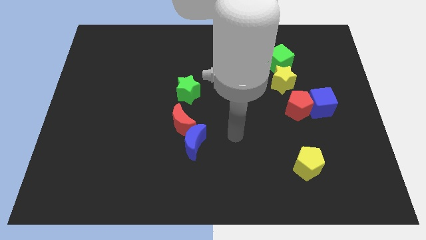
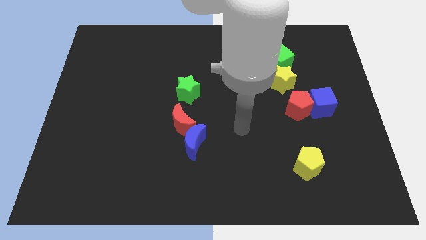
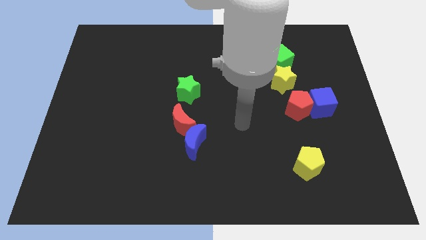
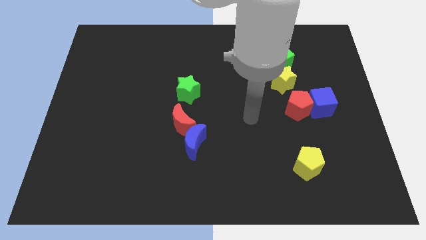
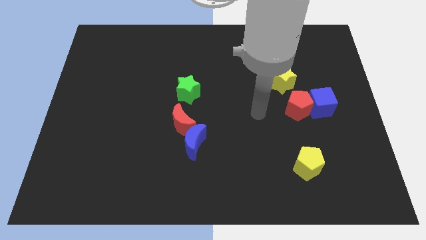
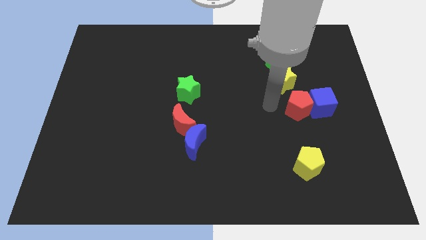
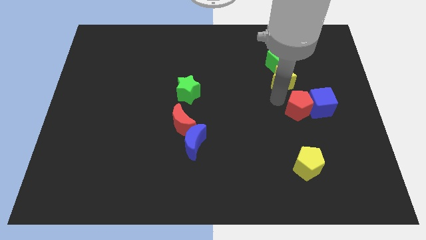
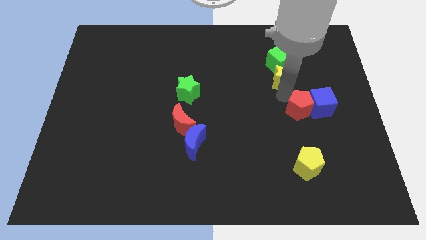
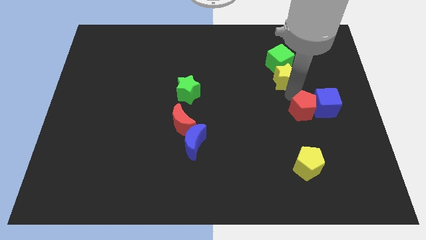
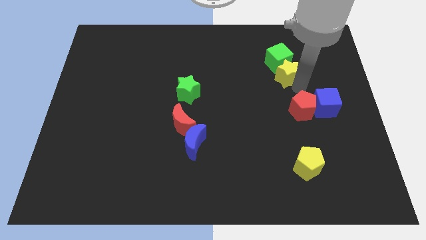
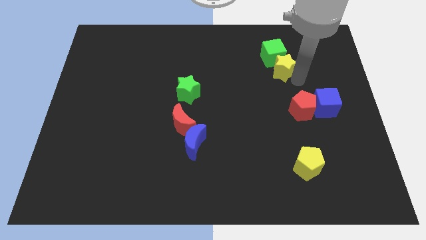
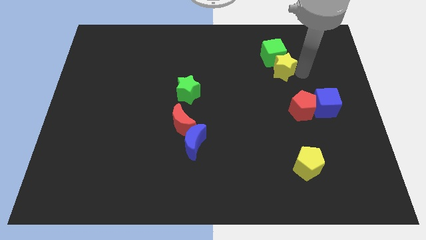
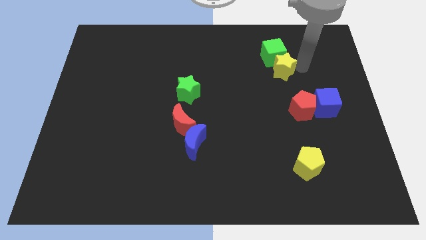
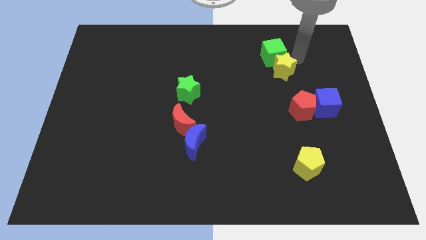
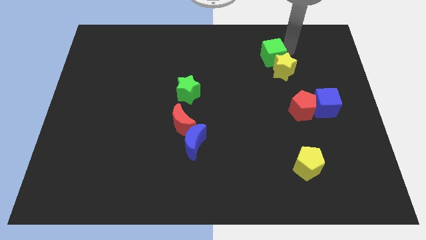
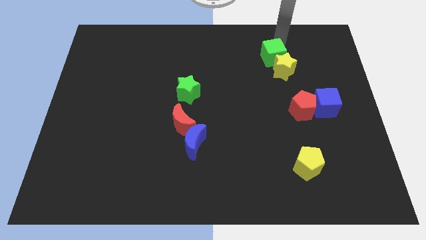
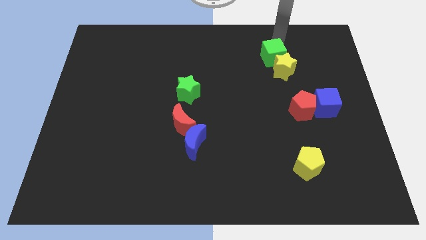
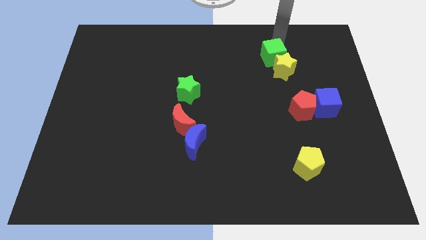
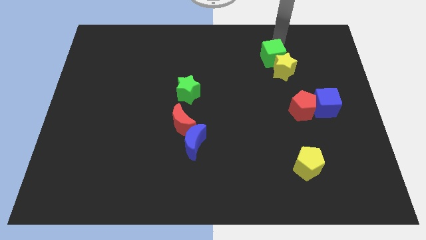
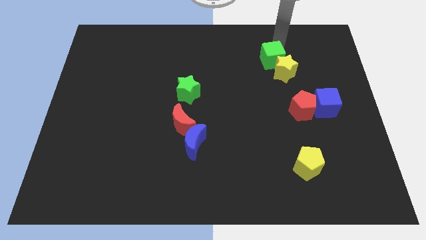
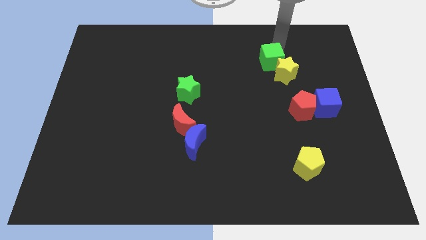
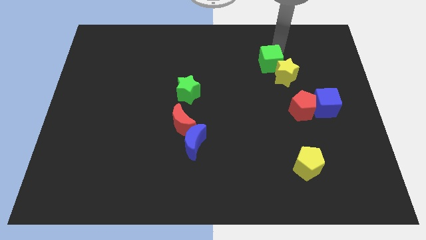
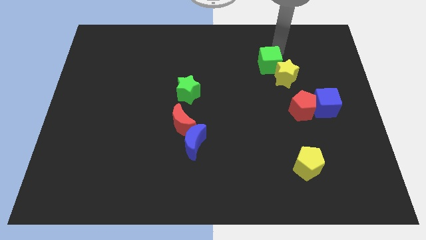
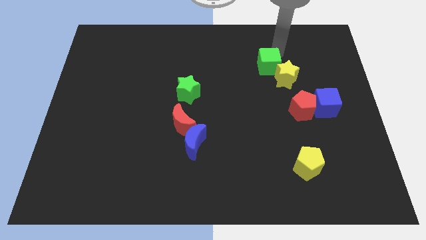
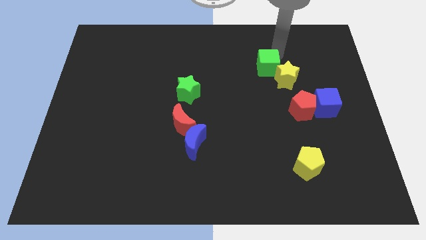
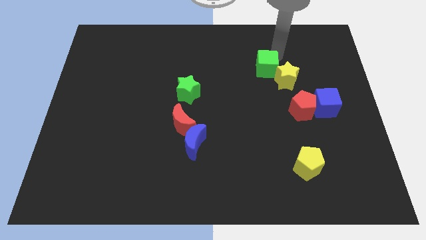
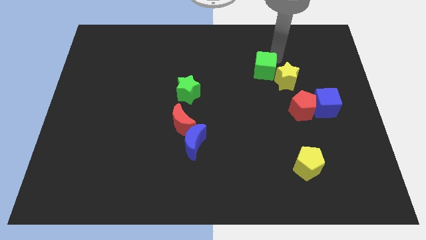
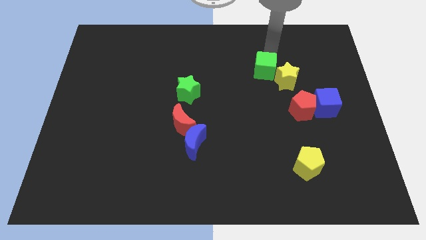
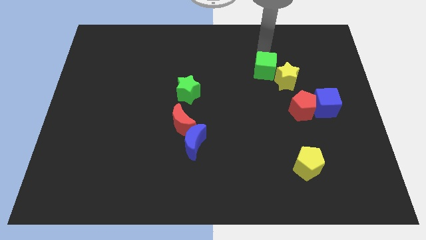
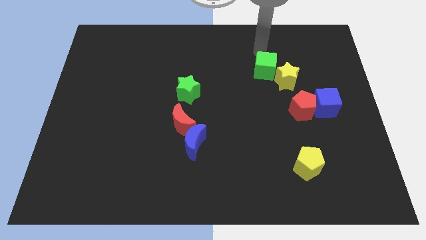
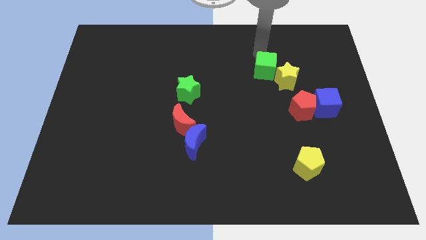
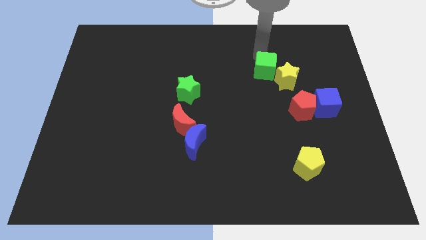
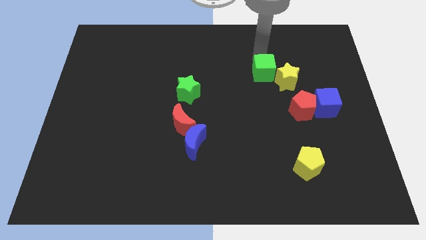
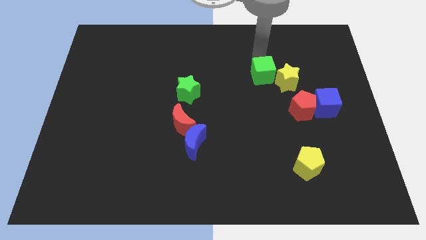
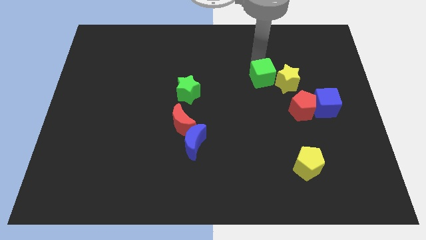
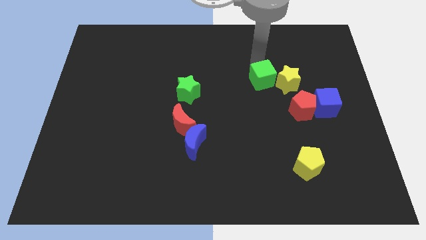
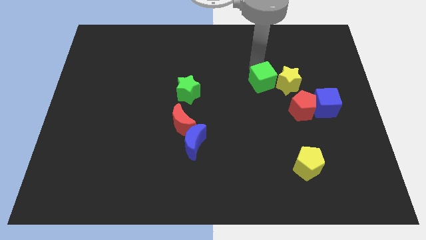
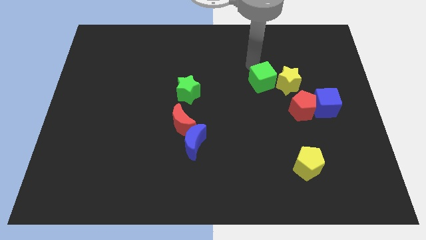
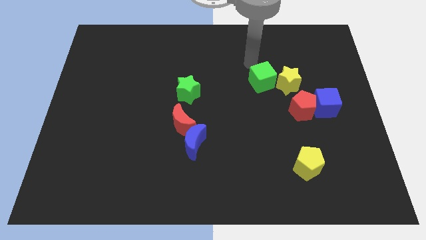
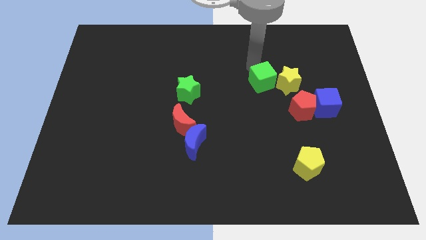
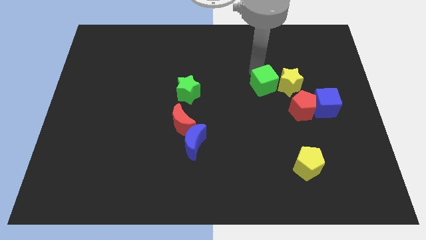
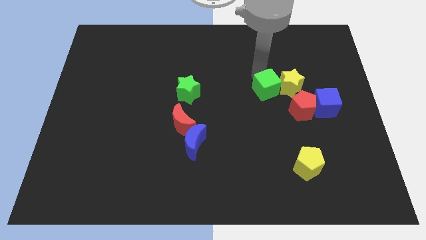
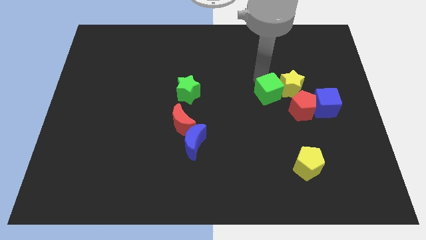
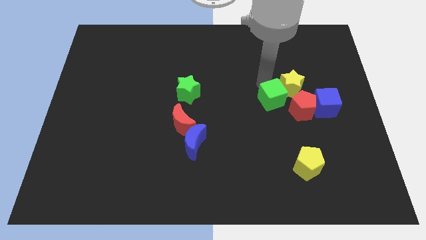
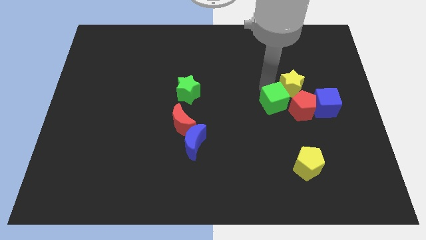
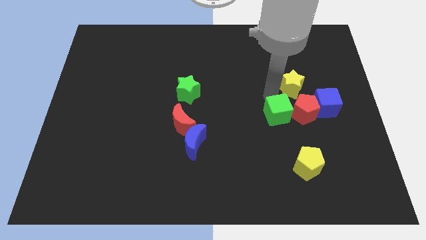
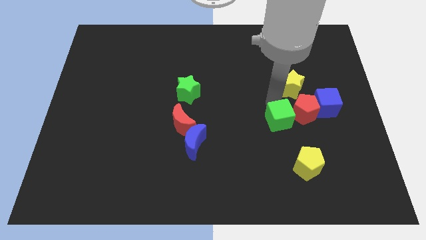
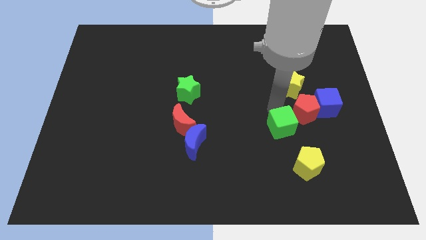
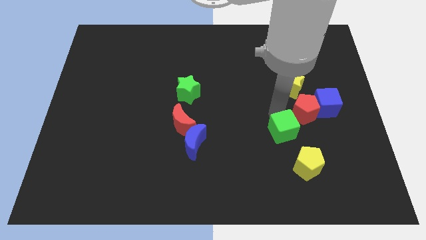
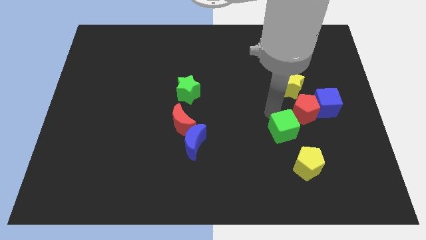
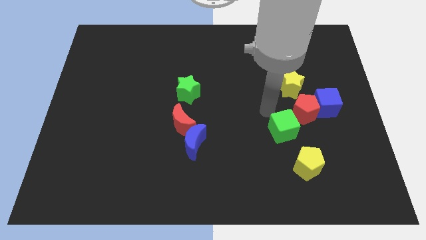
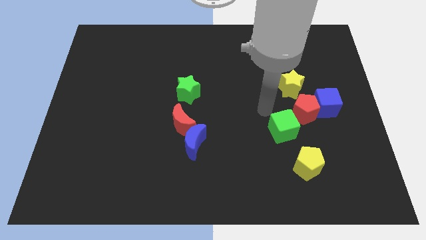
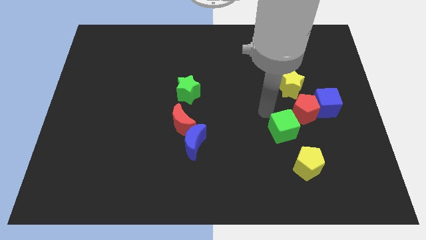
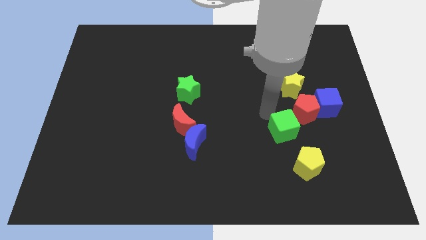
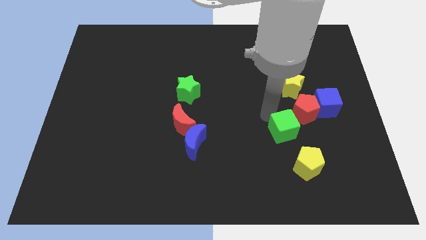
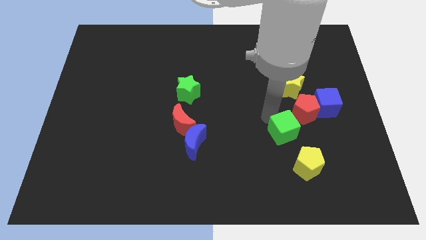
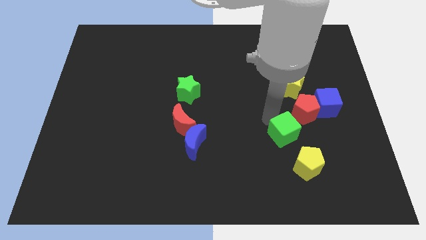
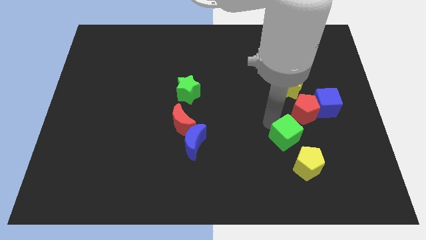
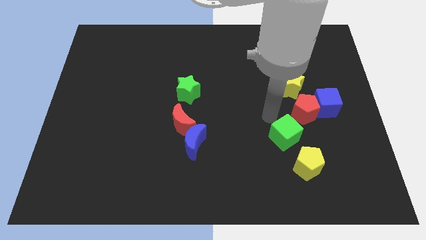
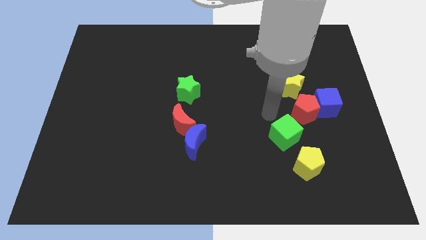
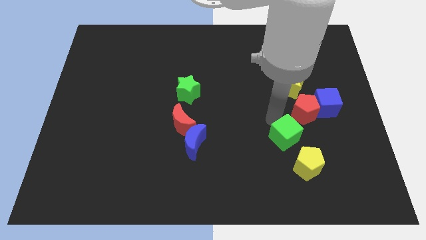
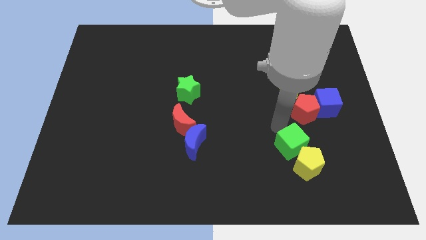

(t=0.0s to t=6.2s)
slide the green cube close to the yellow pentagon

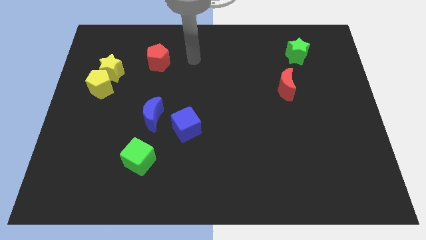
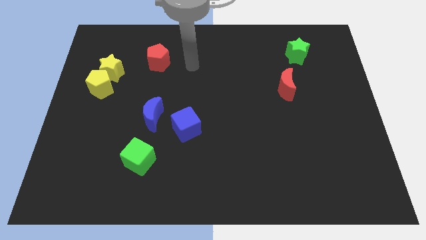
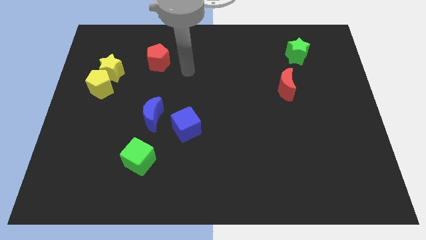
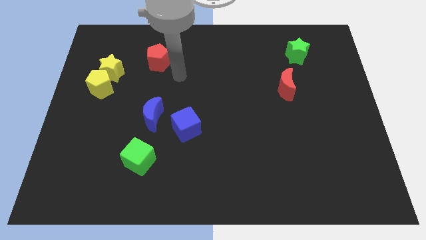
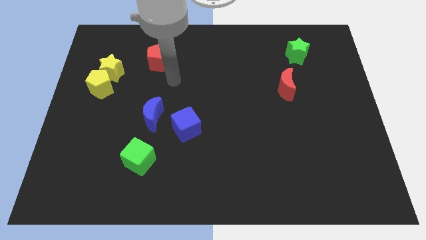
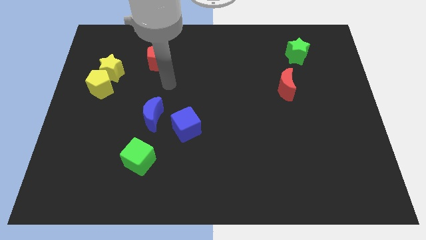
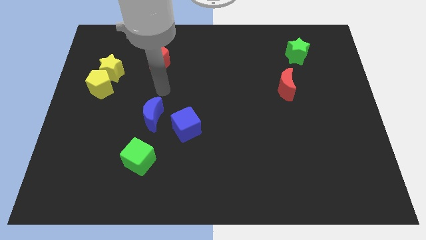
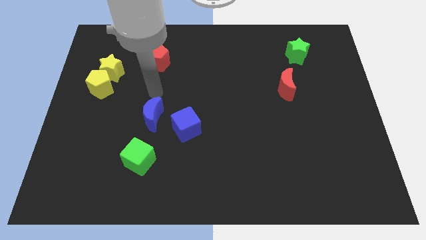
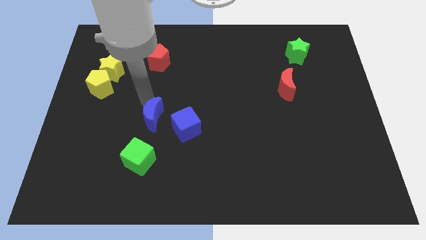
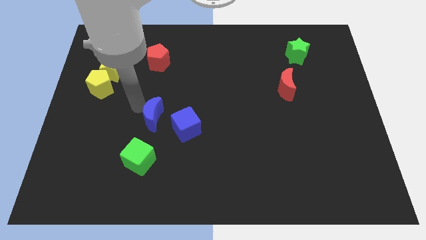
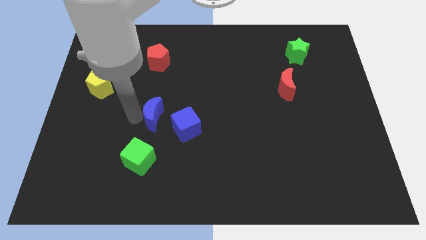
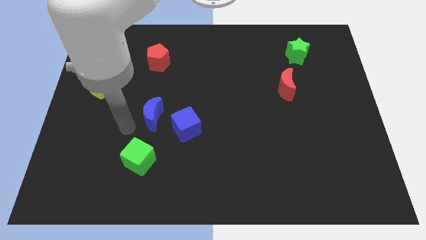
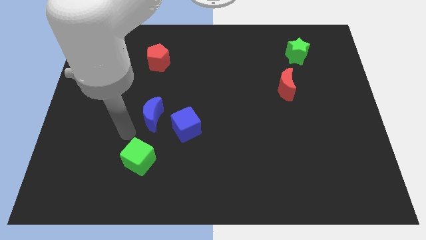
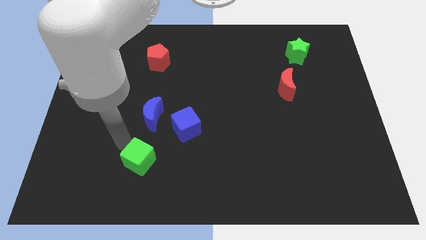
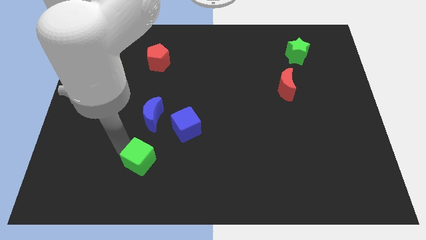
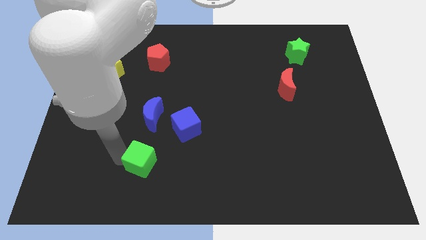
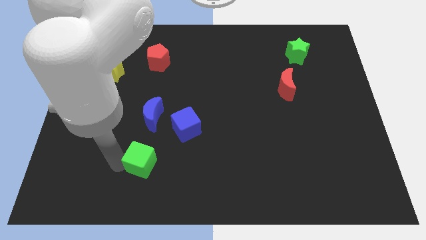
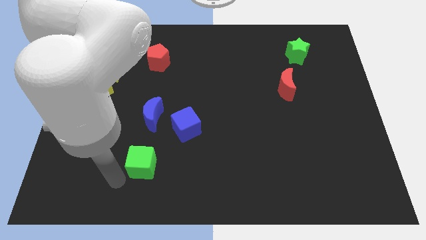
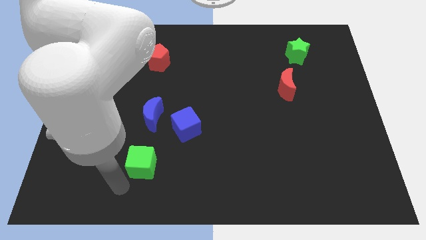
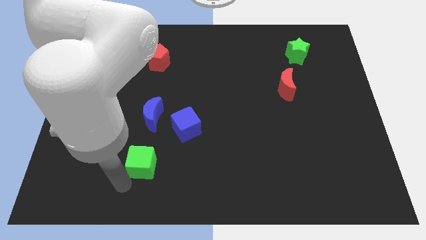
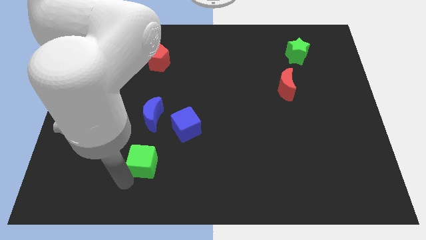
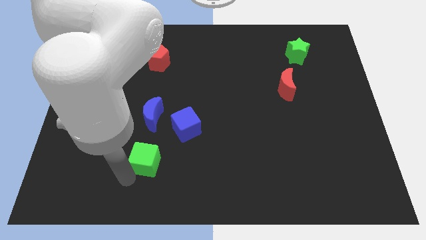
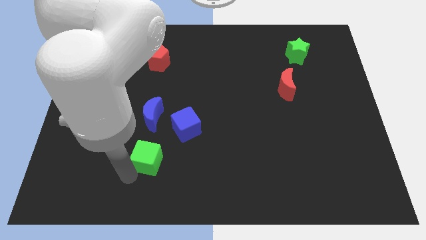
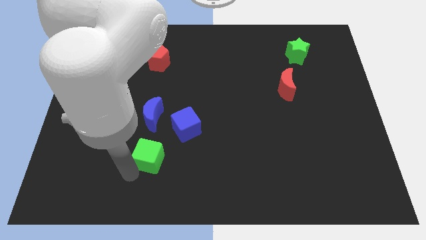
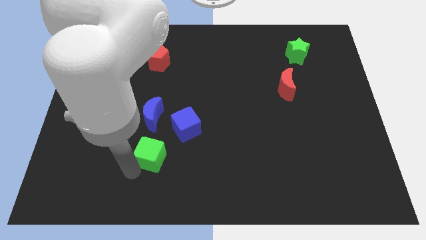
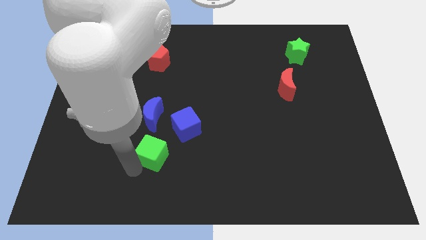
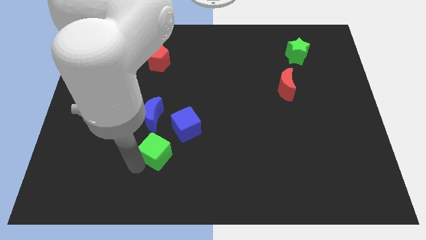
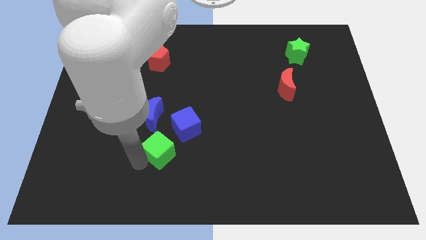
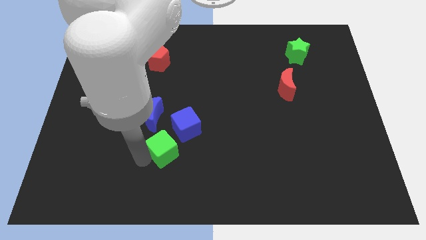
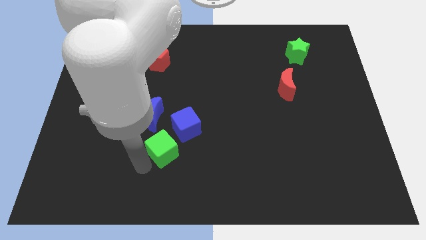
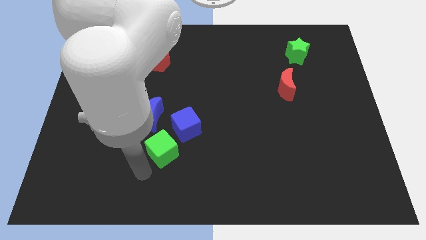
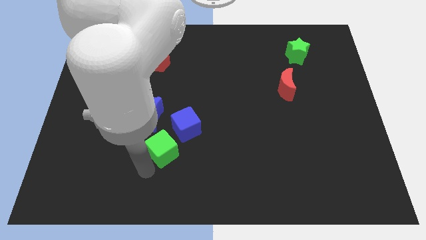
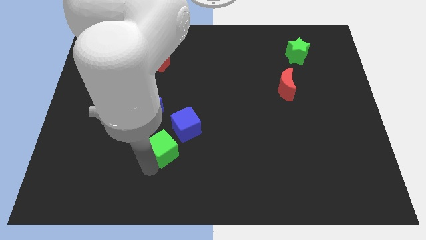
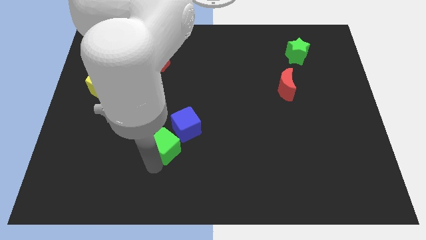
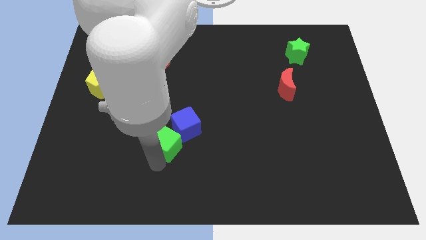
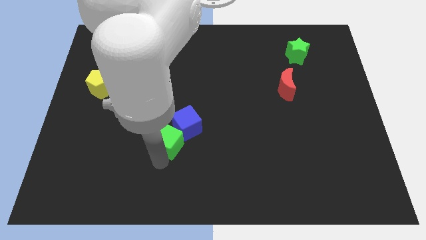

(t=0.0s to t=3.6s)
push the green cube next to the blue cube
